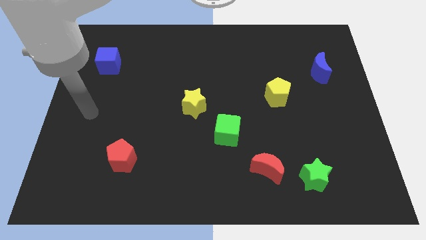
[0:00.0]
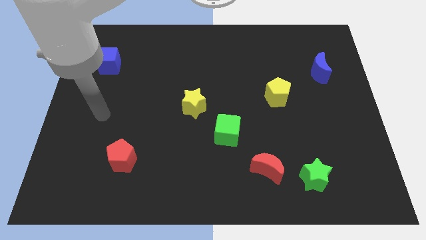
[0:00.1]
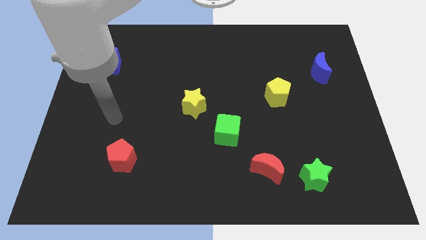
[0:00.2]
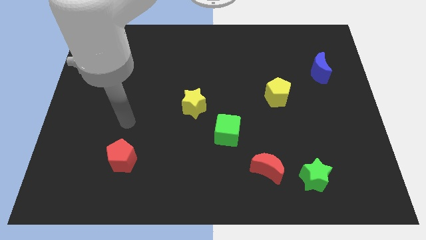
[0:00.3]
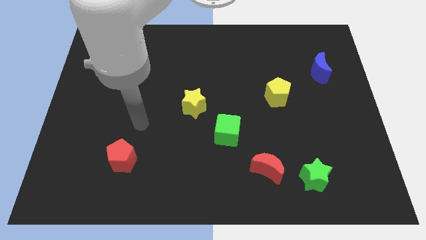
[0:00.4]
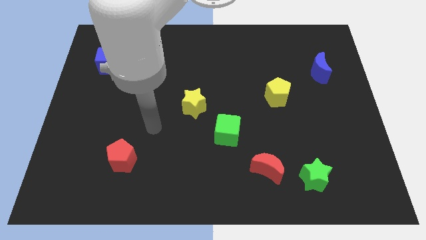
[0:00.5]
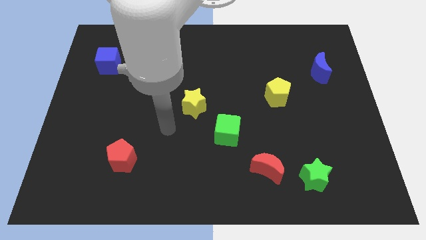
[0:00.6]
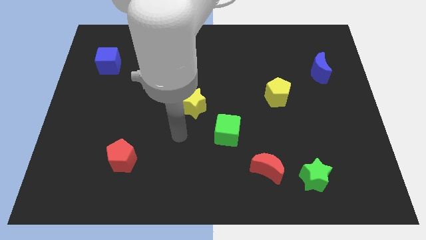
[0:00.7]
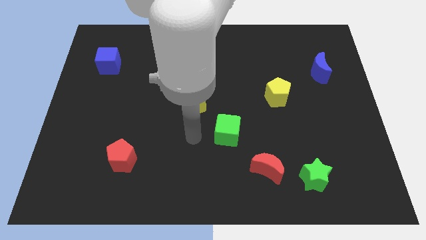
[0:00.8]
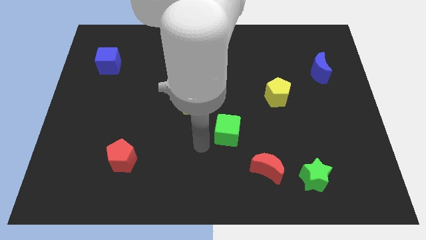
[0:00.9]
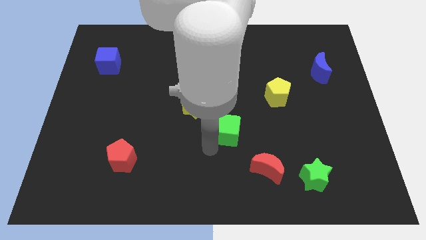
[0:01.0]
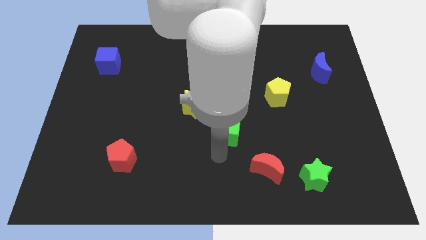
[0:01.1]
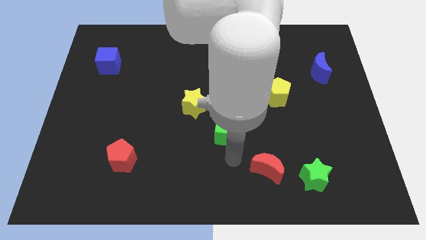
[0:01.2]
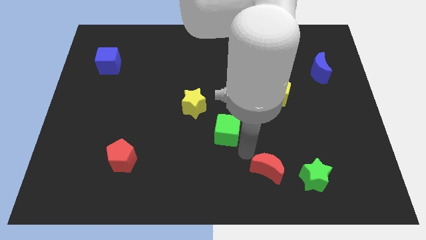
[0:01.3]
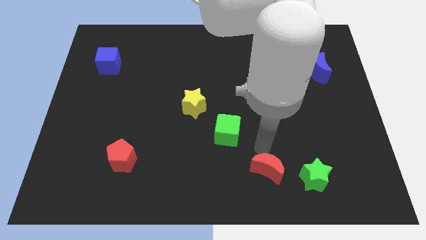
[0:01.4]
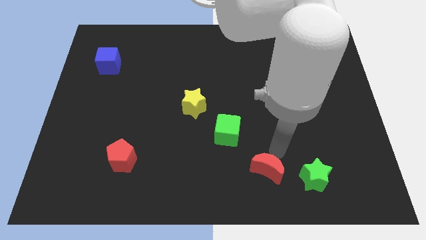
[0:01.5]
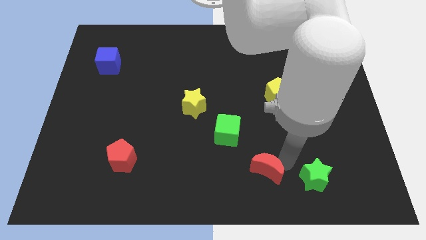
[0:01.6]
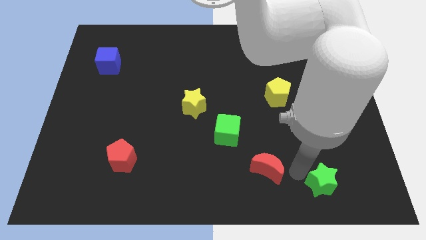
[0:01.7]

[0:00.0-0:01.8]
move the red moon away from the green star

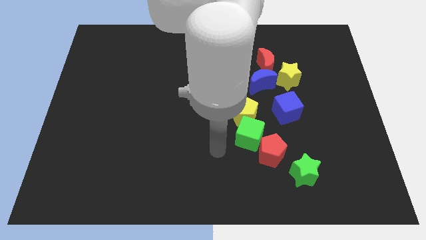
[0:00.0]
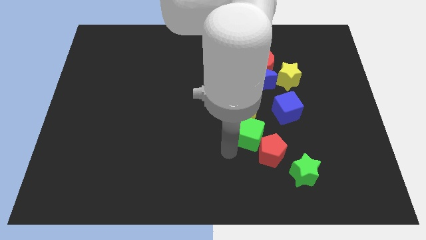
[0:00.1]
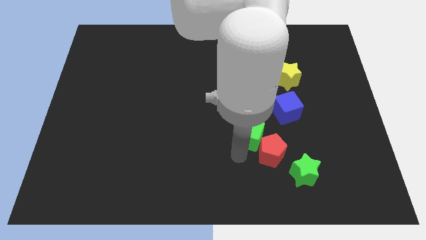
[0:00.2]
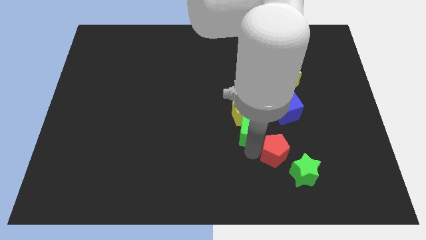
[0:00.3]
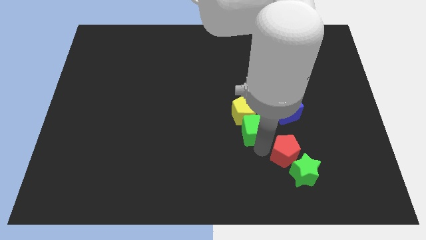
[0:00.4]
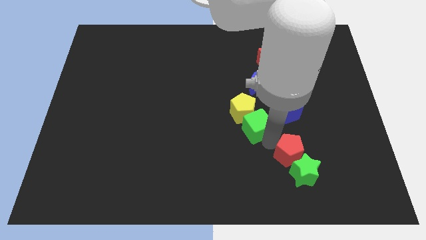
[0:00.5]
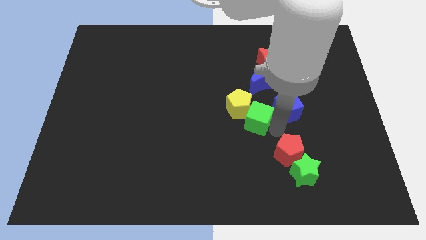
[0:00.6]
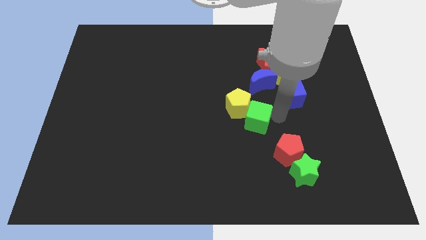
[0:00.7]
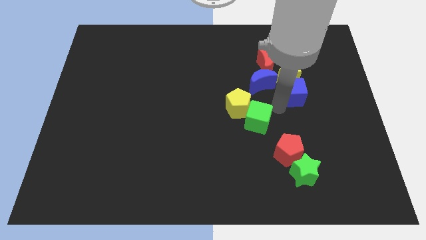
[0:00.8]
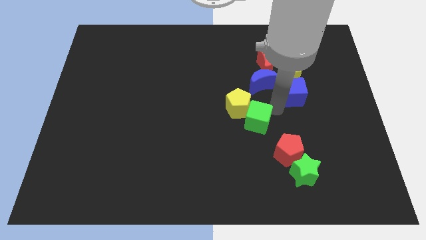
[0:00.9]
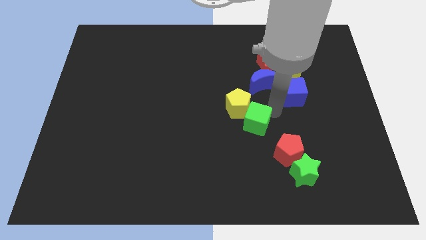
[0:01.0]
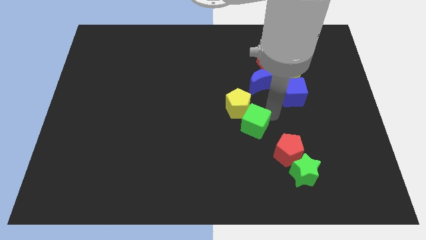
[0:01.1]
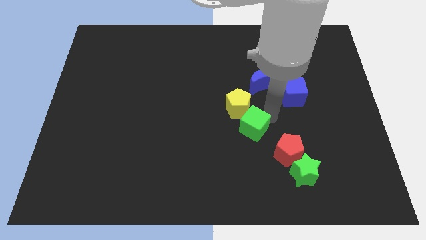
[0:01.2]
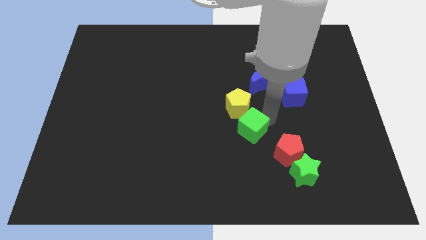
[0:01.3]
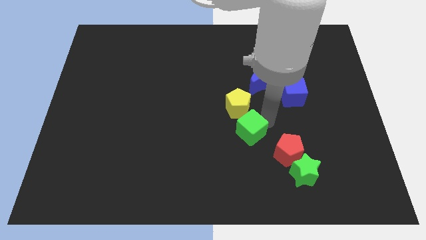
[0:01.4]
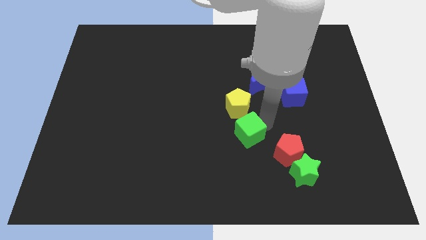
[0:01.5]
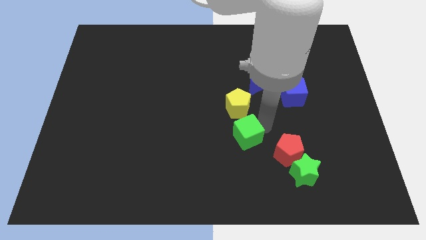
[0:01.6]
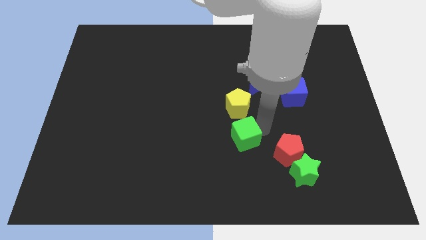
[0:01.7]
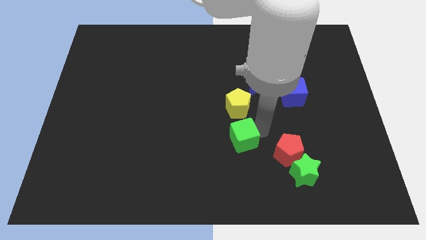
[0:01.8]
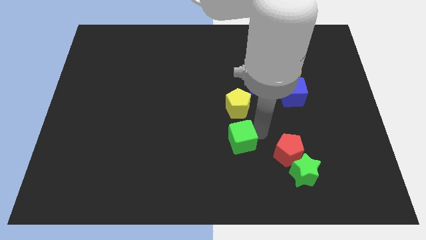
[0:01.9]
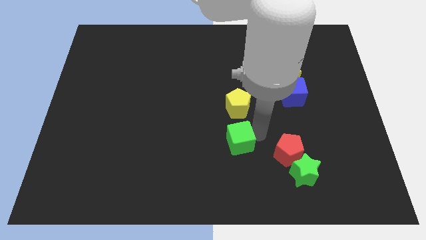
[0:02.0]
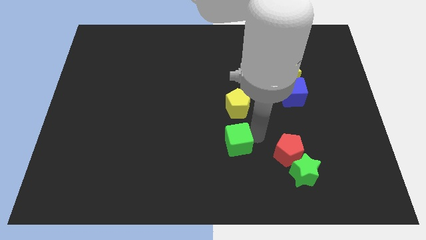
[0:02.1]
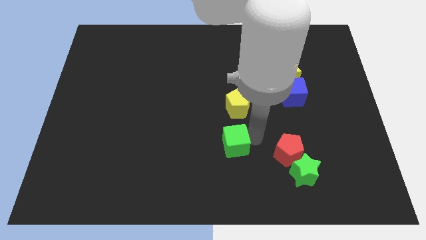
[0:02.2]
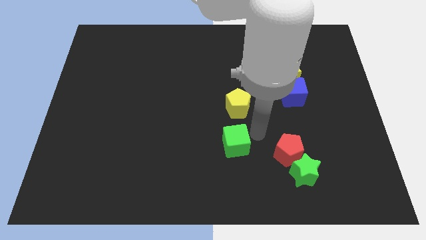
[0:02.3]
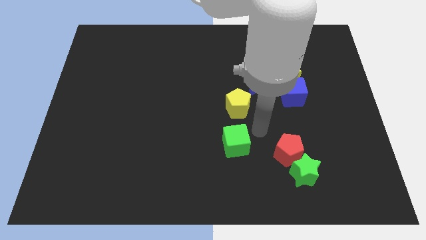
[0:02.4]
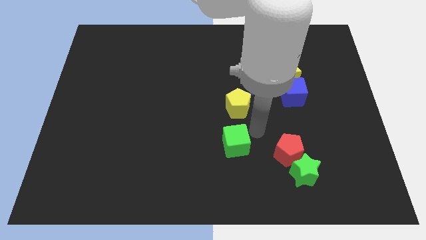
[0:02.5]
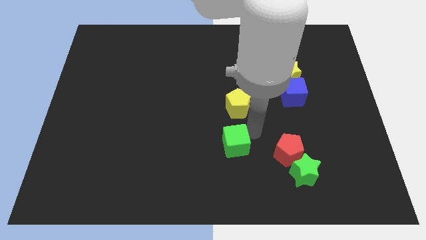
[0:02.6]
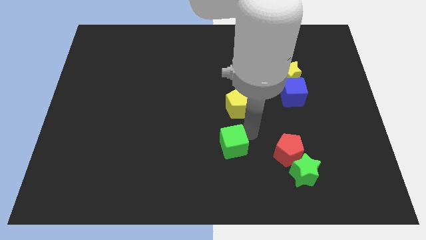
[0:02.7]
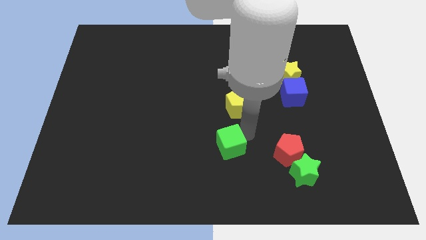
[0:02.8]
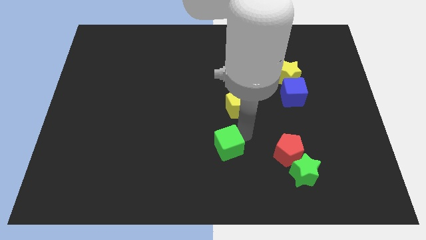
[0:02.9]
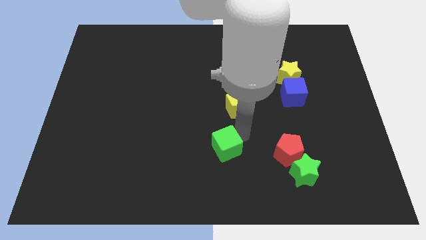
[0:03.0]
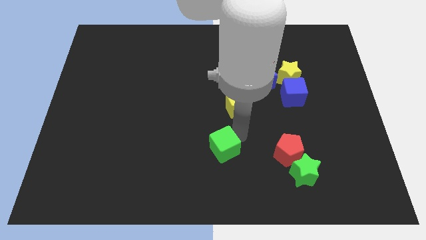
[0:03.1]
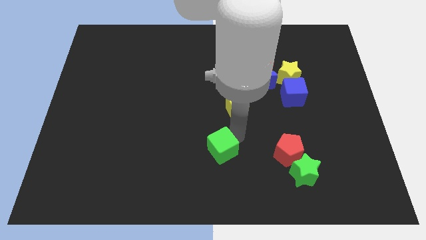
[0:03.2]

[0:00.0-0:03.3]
pull the green cube apart from the yellow pentagon and red pentagon

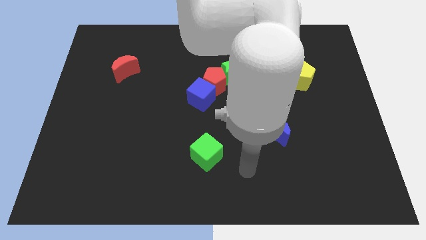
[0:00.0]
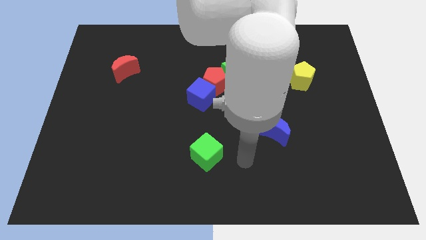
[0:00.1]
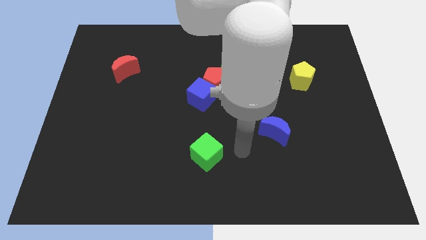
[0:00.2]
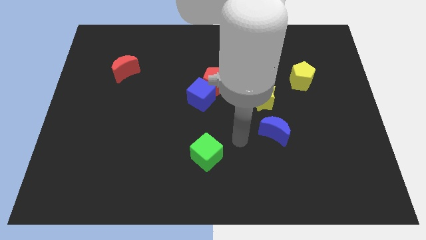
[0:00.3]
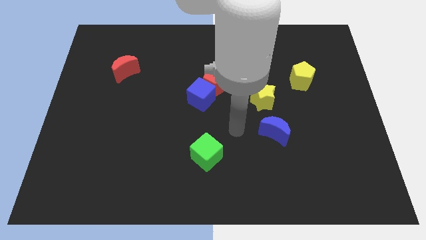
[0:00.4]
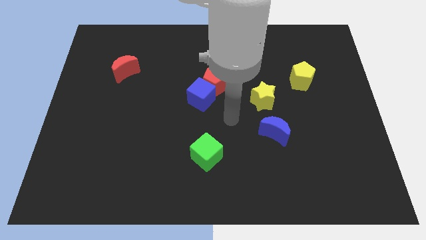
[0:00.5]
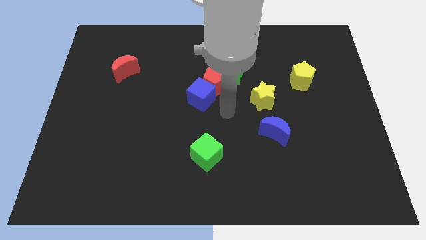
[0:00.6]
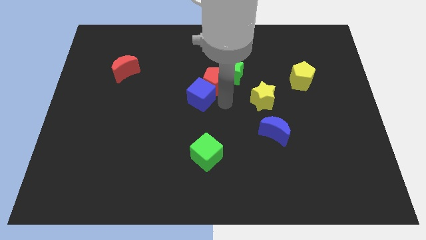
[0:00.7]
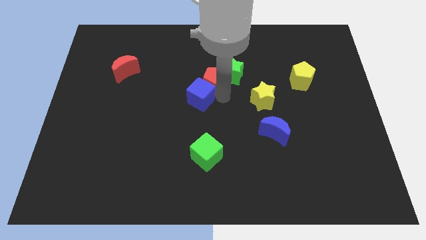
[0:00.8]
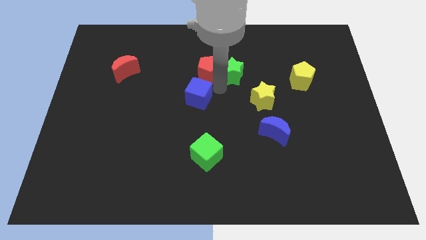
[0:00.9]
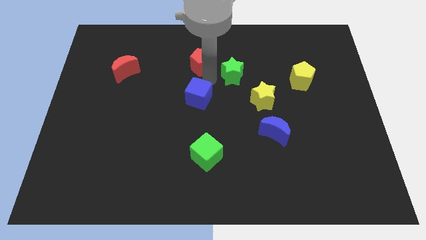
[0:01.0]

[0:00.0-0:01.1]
move the blue cube away from the red pentagon

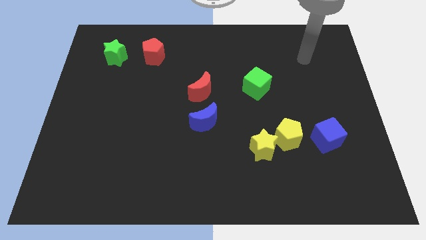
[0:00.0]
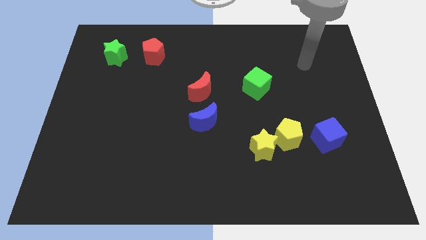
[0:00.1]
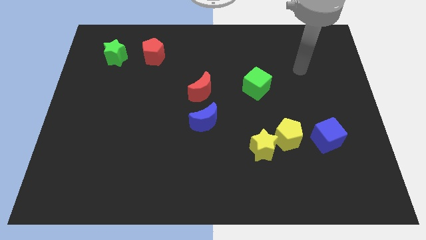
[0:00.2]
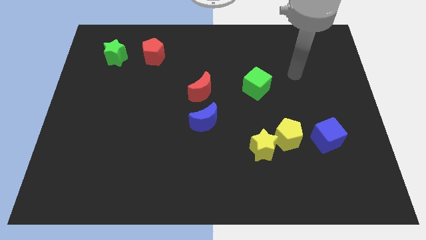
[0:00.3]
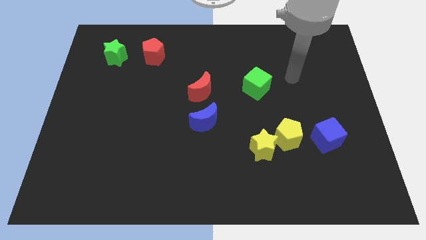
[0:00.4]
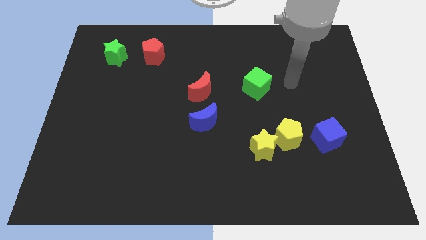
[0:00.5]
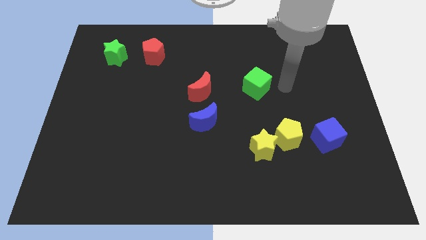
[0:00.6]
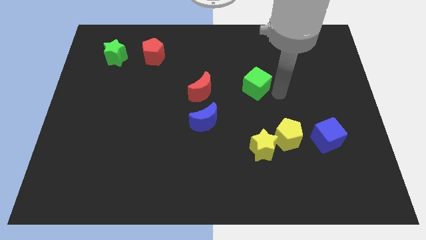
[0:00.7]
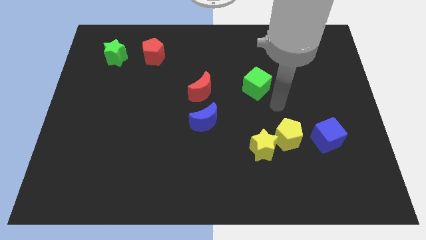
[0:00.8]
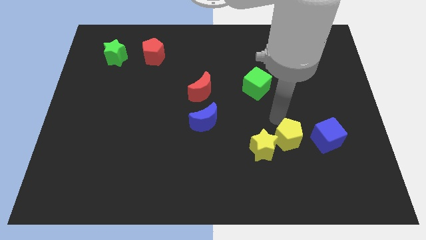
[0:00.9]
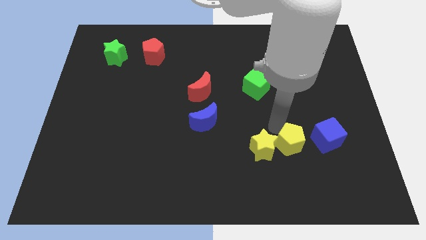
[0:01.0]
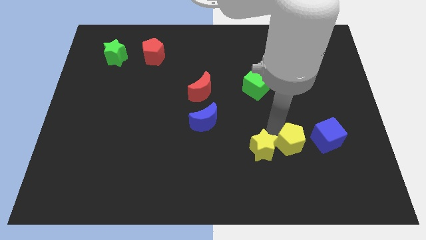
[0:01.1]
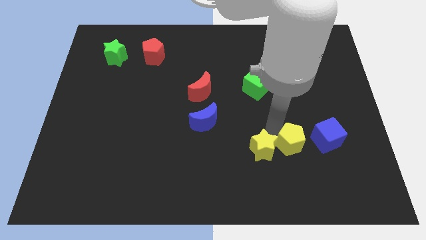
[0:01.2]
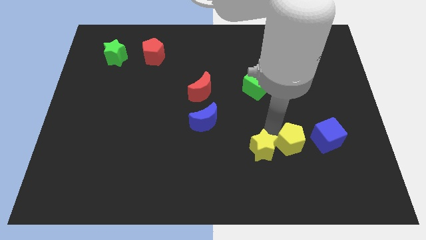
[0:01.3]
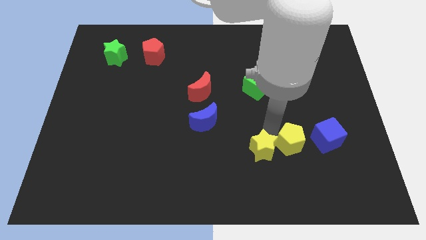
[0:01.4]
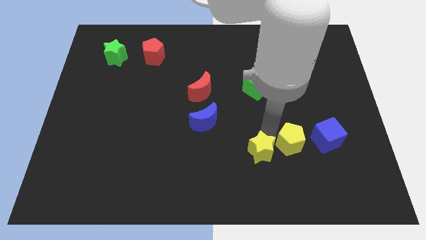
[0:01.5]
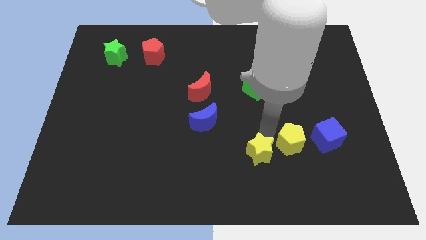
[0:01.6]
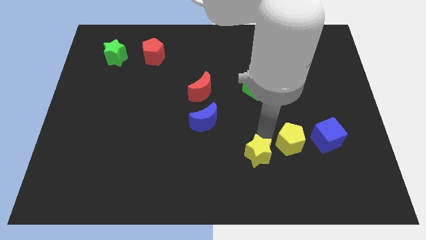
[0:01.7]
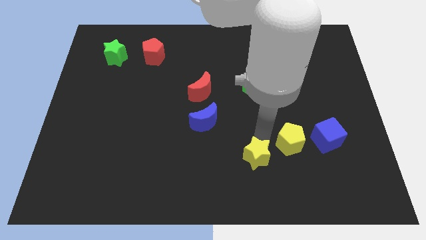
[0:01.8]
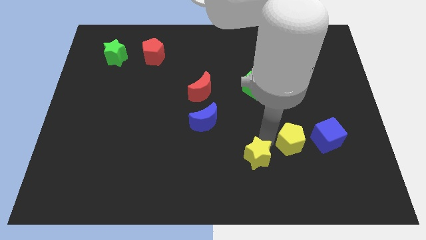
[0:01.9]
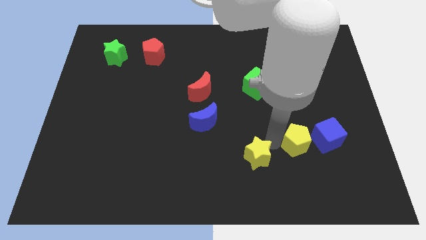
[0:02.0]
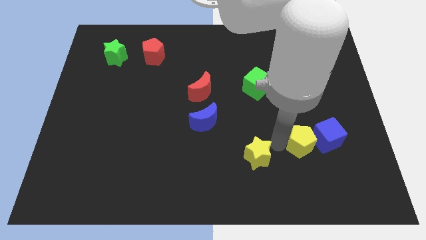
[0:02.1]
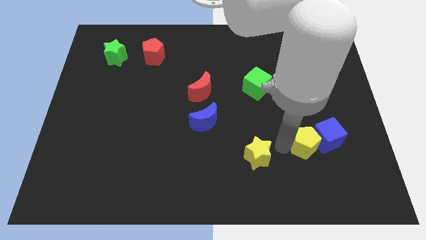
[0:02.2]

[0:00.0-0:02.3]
pull the yellow star apart from the yellow pentagon

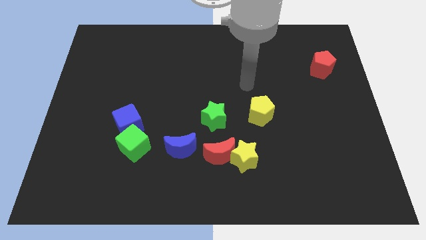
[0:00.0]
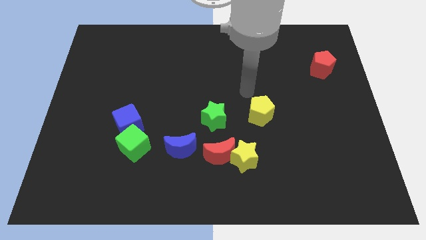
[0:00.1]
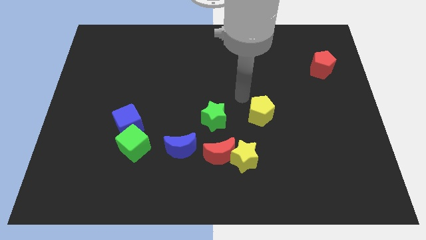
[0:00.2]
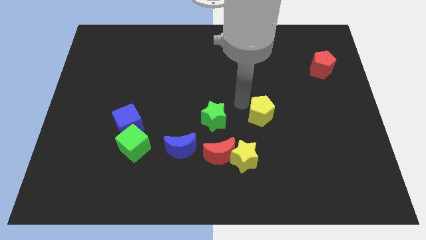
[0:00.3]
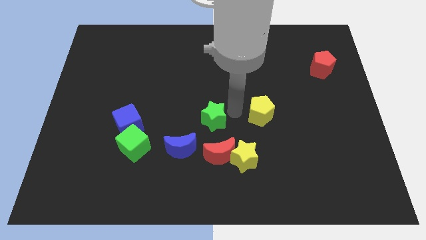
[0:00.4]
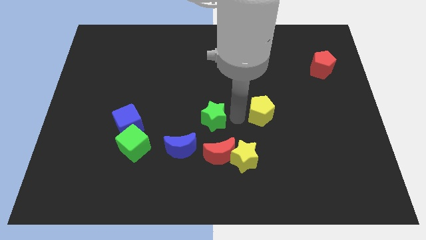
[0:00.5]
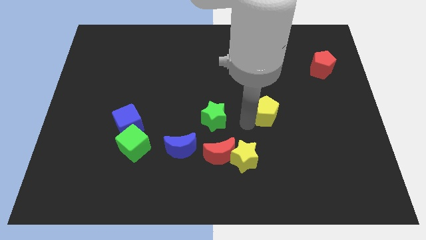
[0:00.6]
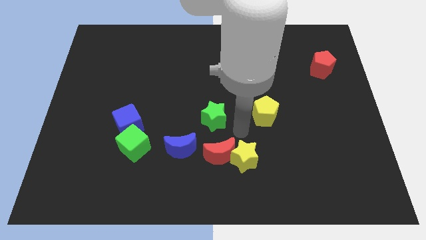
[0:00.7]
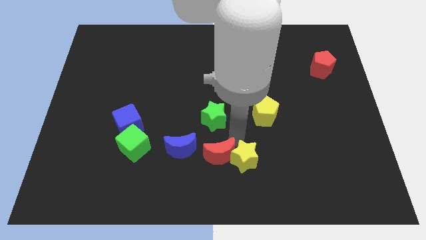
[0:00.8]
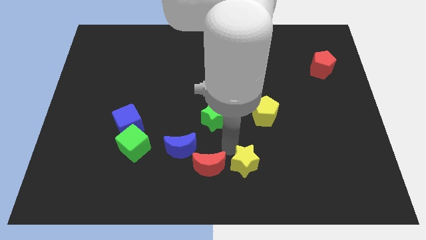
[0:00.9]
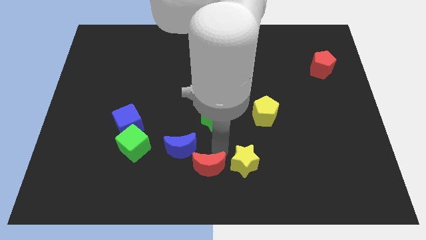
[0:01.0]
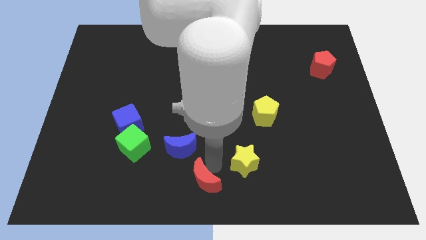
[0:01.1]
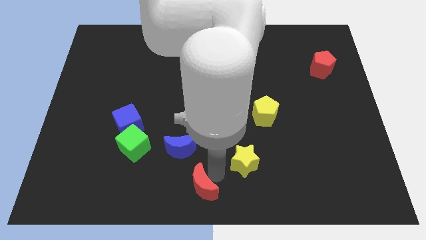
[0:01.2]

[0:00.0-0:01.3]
pull the yellow star apart from the red moon
